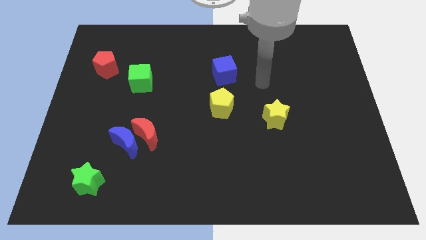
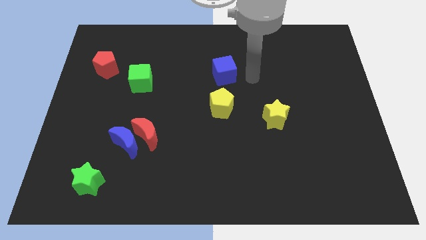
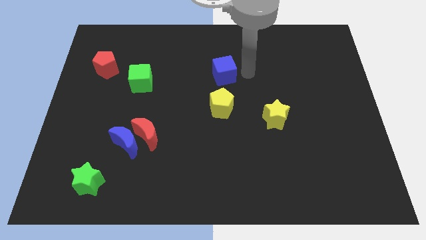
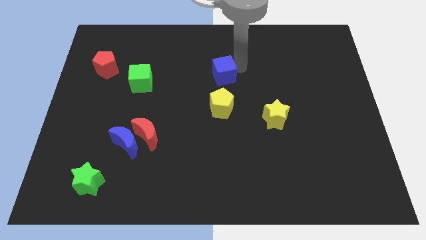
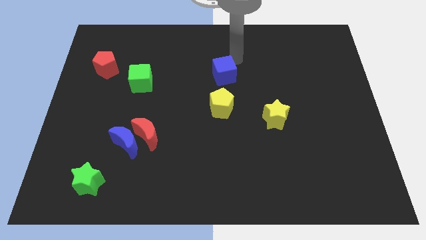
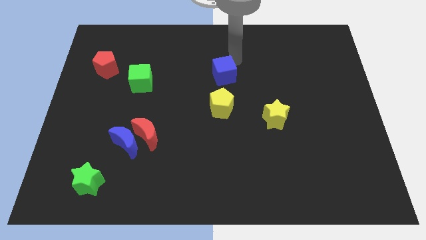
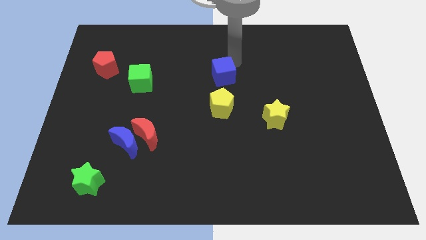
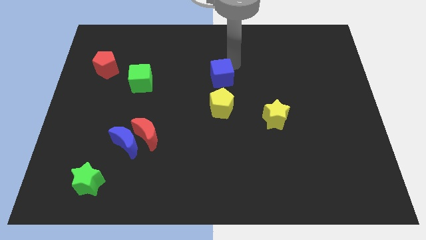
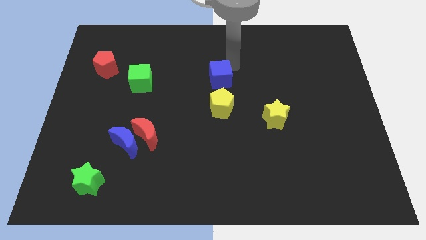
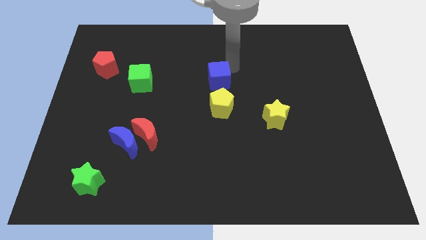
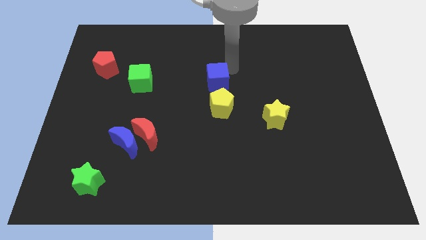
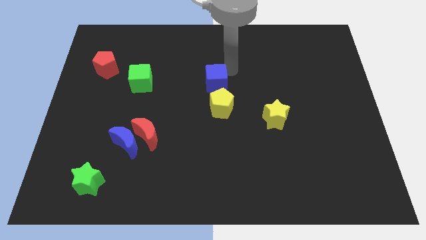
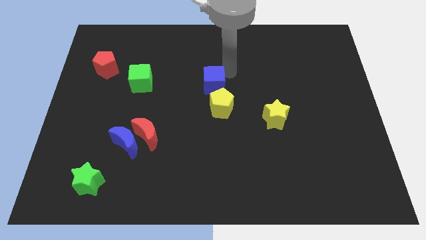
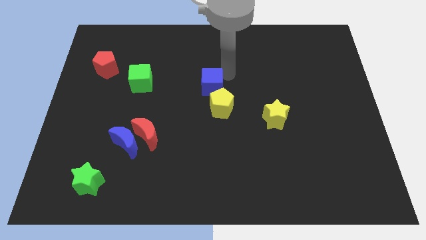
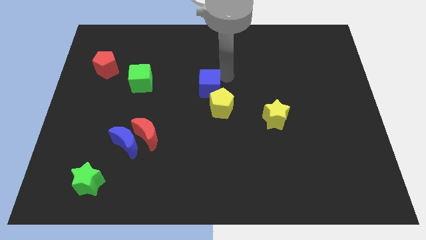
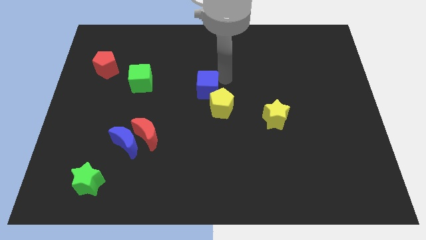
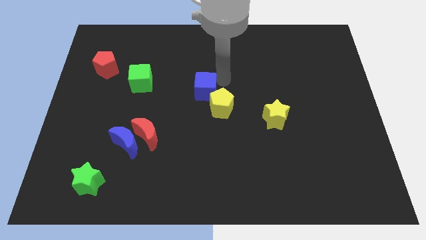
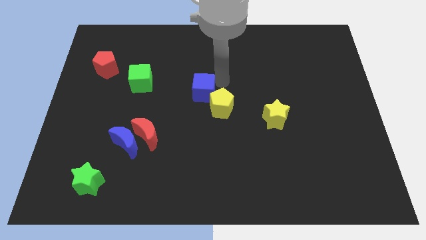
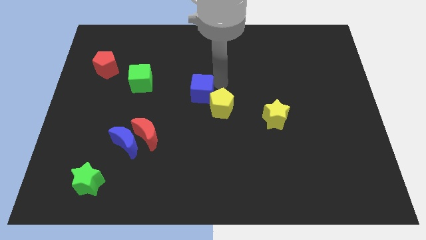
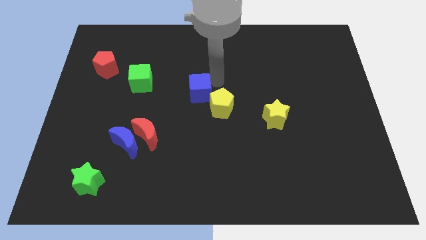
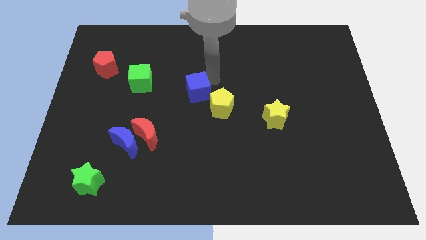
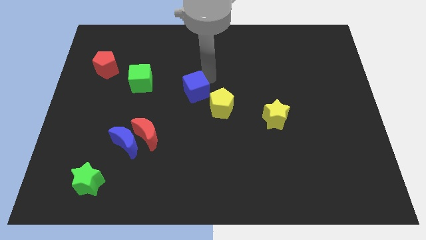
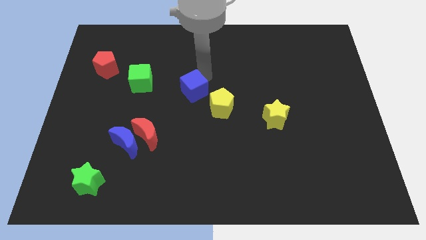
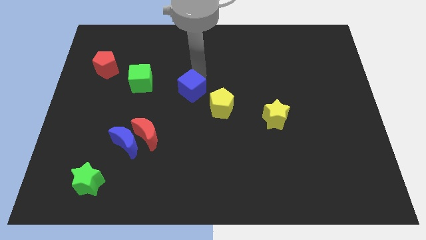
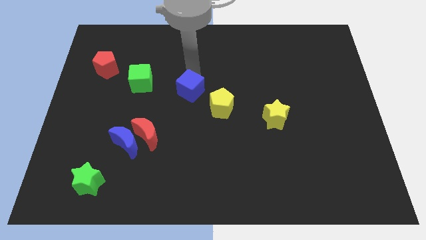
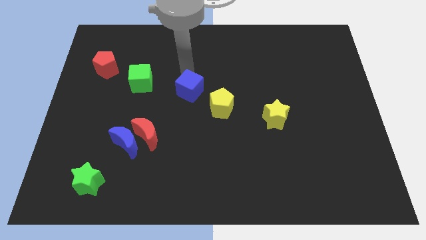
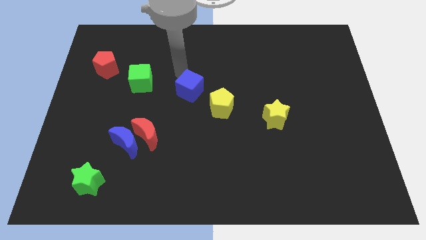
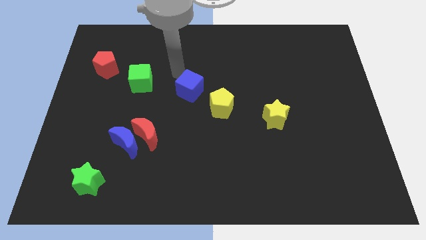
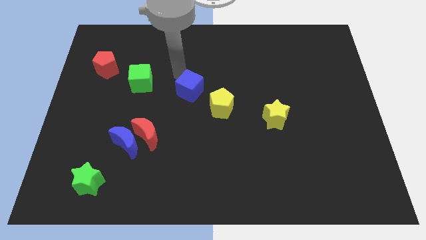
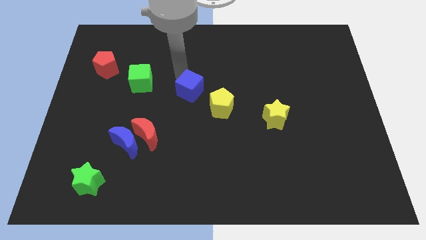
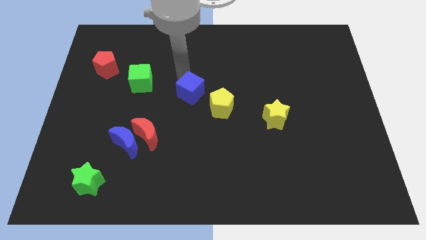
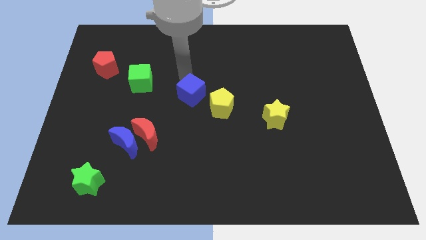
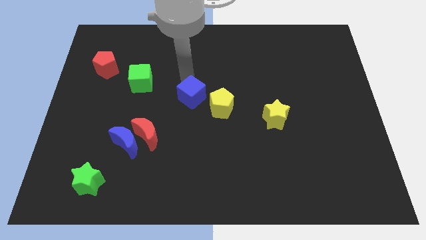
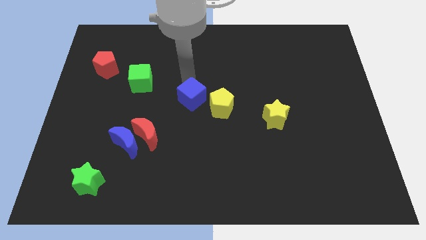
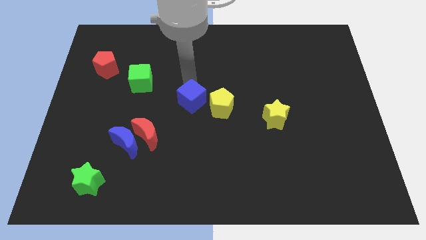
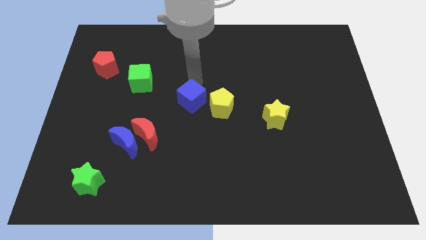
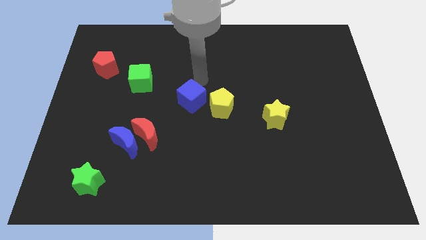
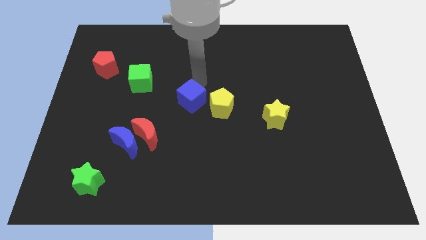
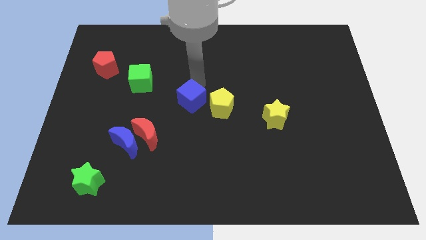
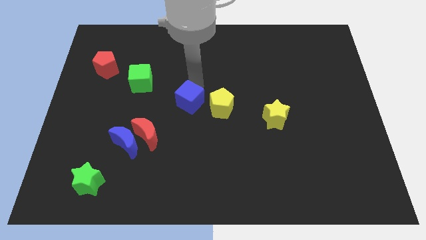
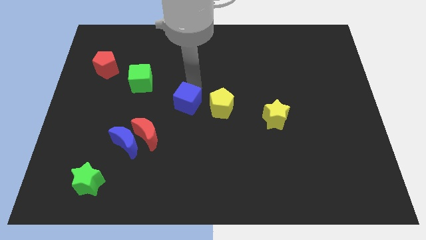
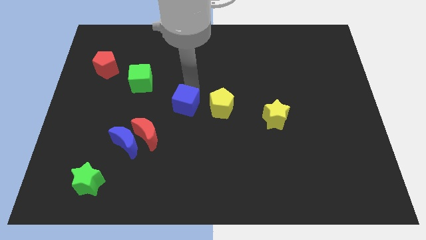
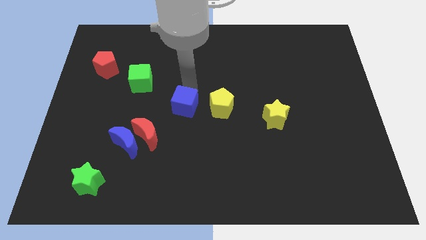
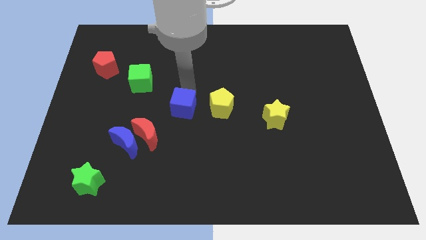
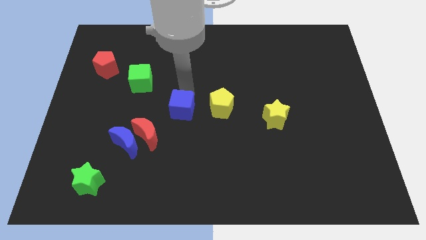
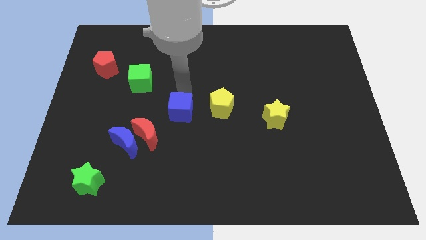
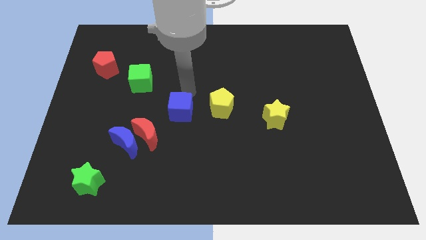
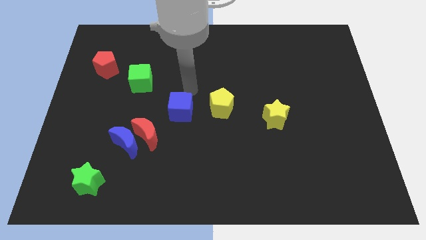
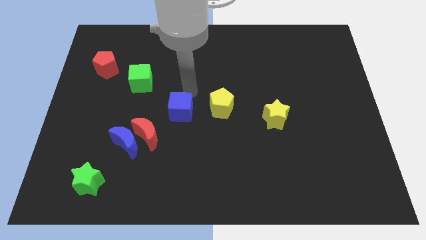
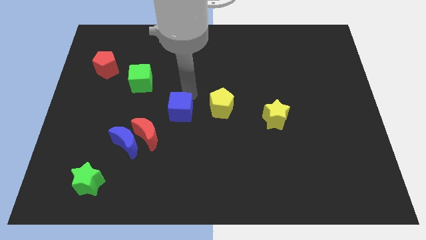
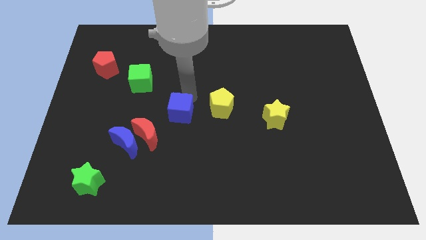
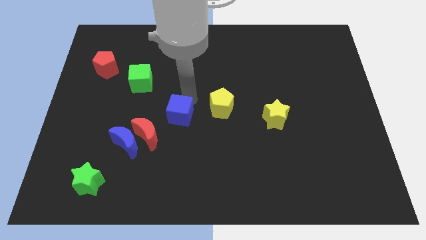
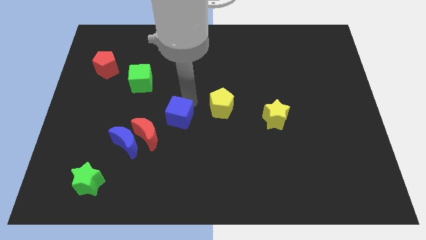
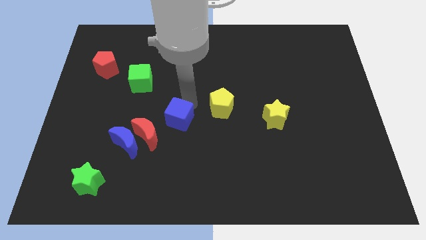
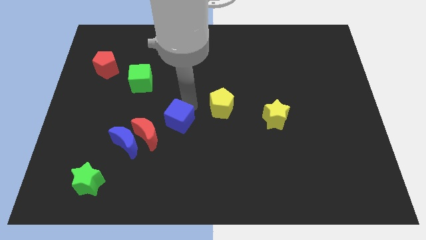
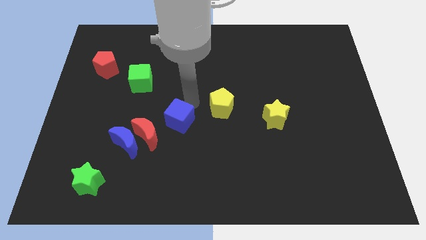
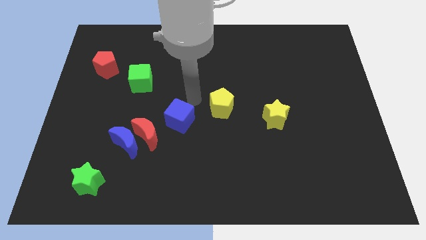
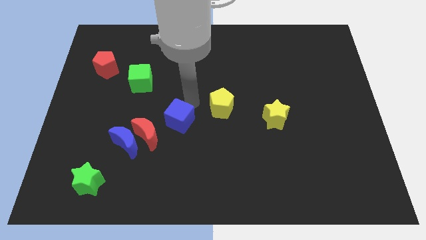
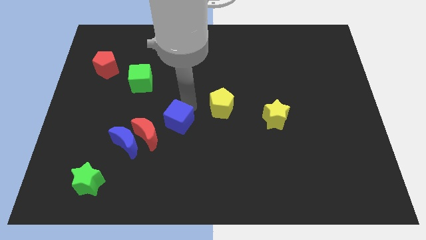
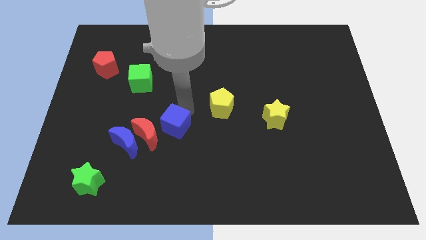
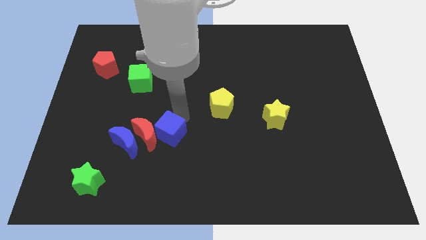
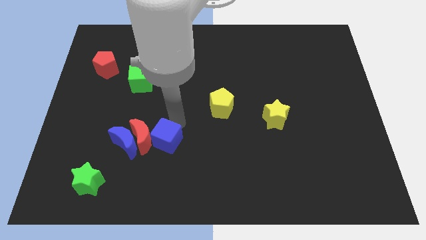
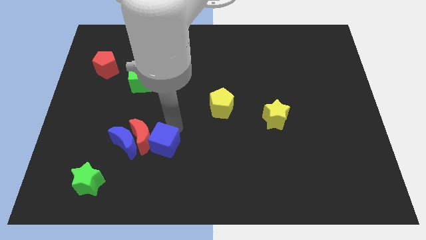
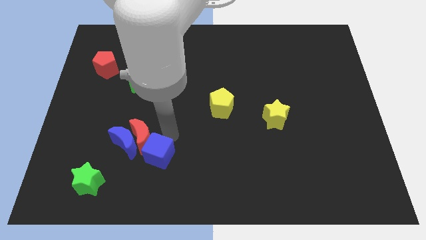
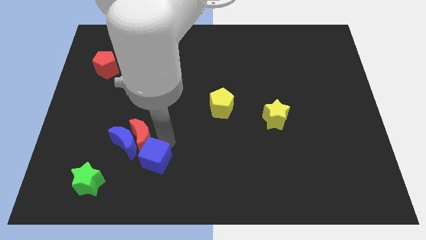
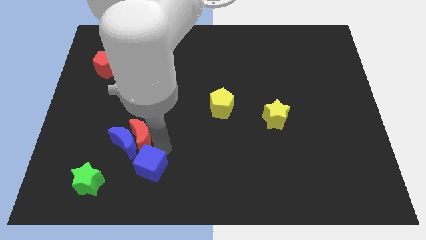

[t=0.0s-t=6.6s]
push the blue cube to the right of the green star

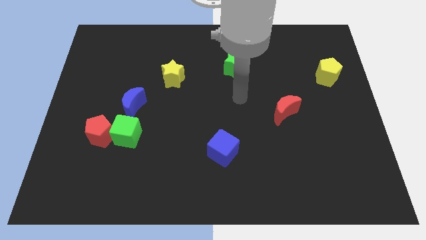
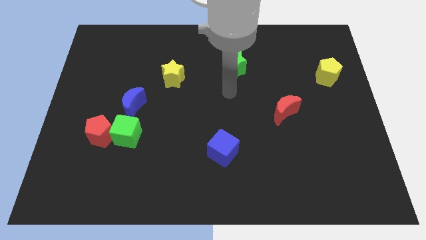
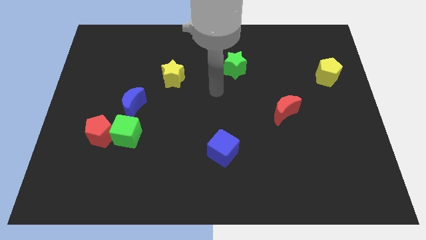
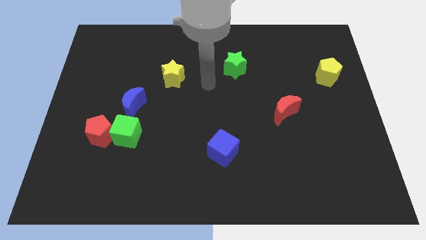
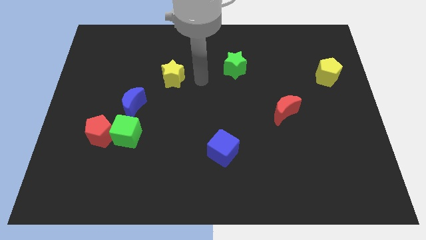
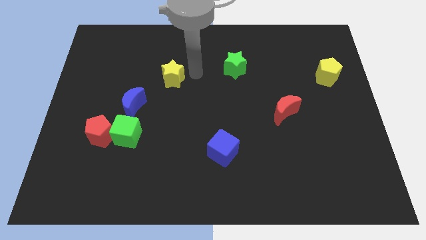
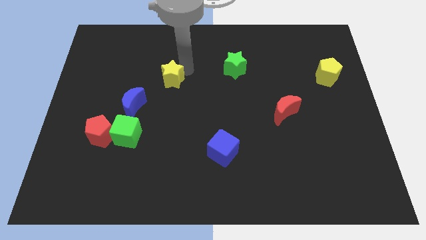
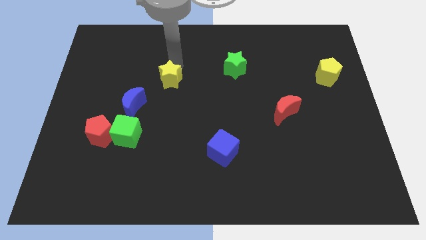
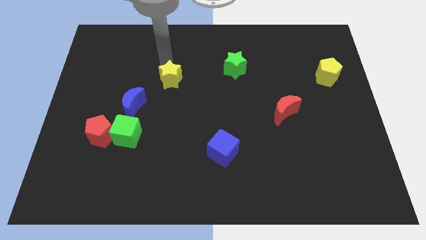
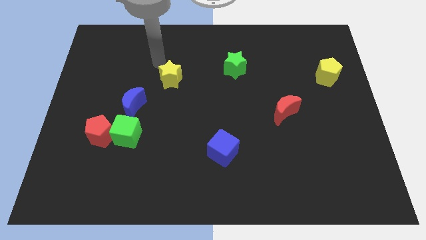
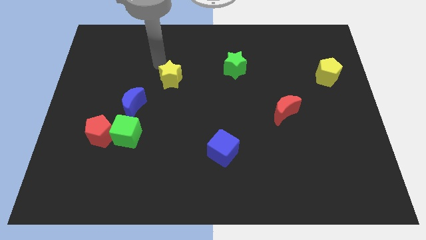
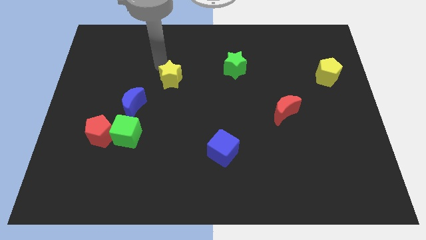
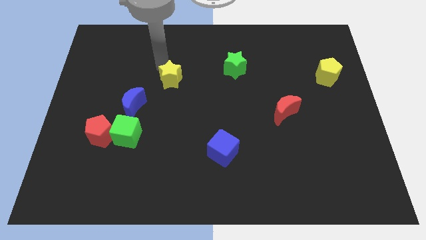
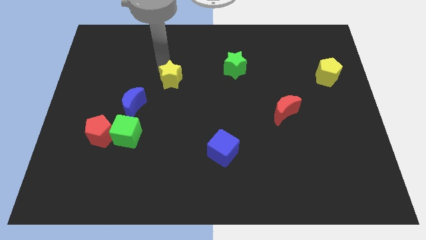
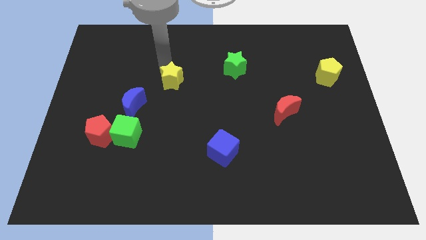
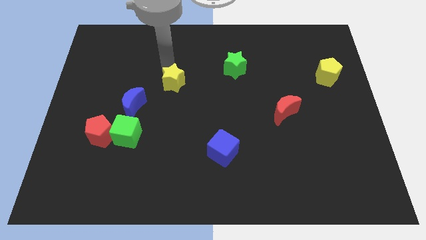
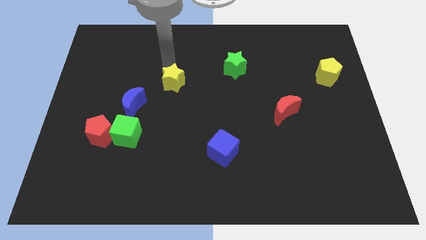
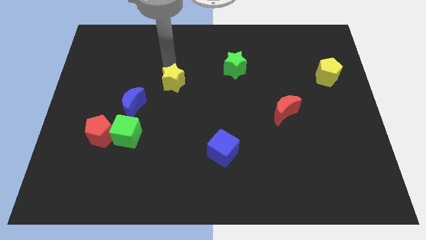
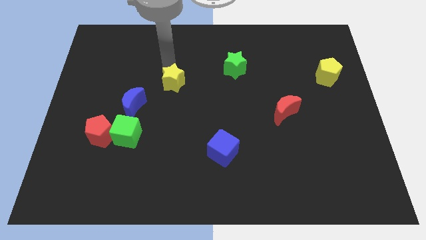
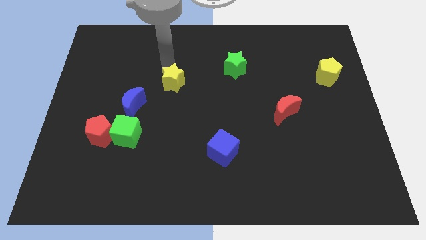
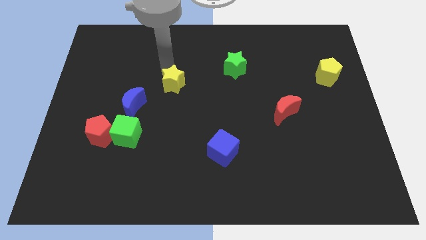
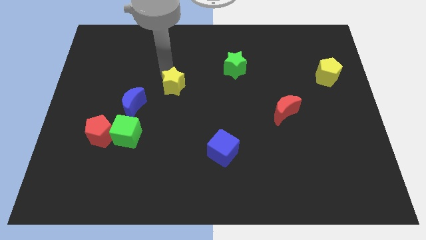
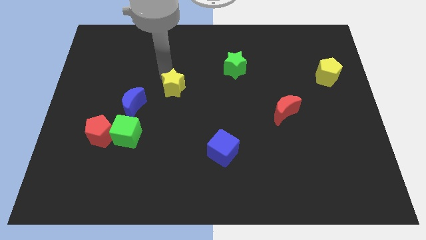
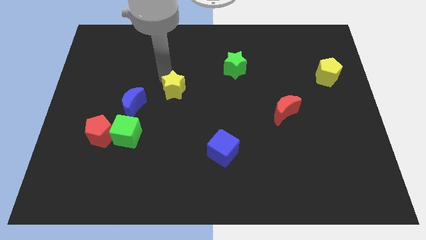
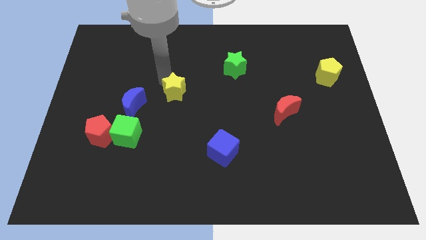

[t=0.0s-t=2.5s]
put the yellow star right of the blue moon
